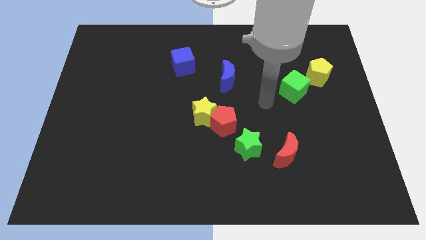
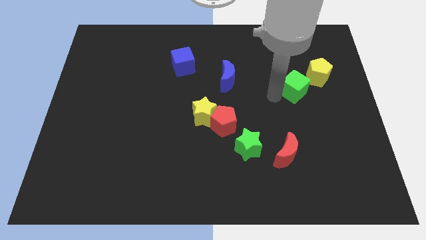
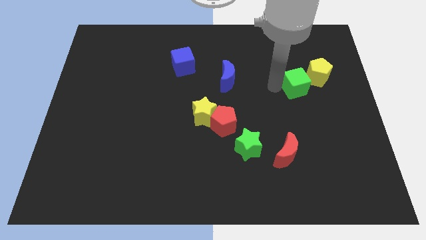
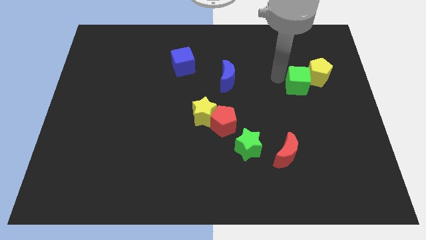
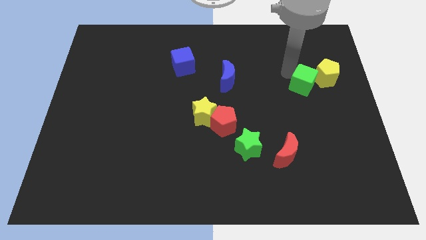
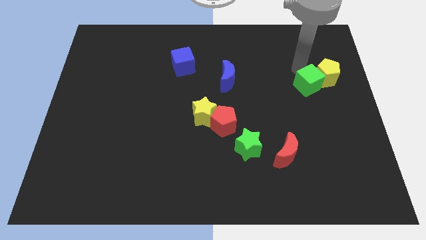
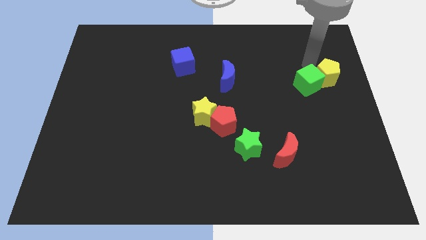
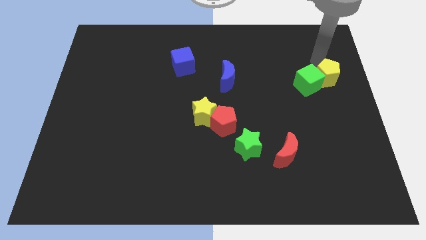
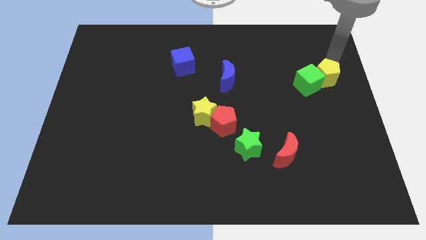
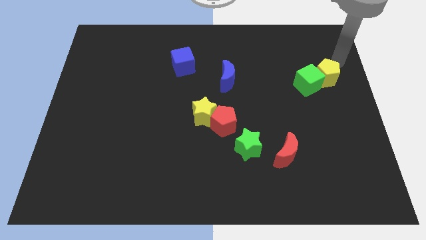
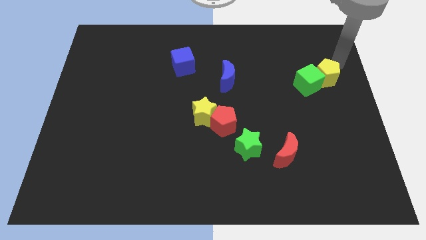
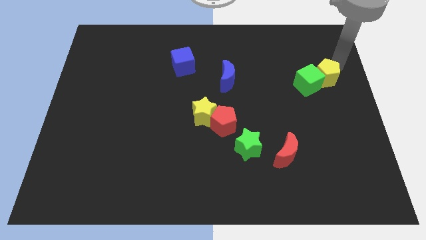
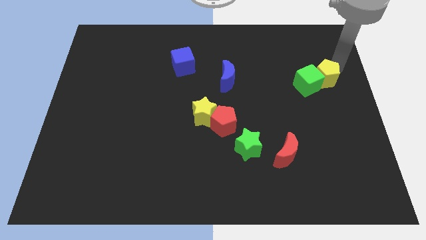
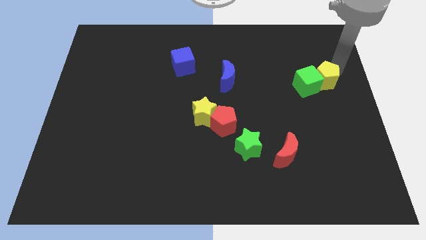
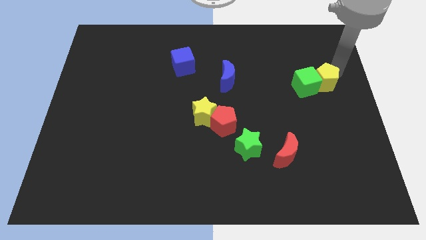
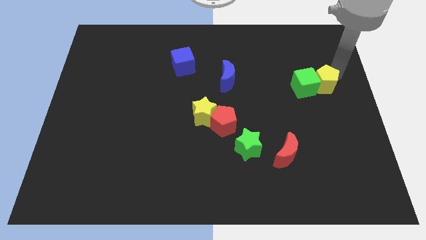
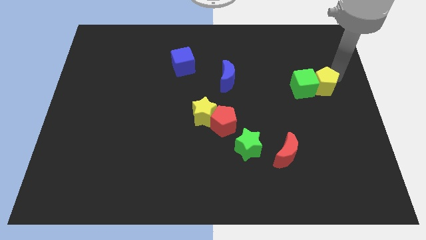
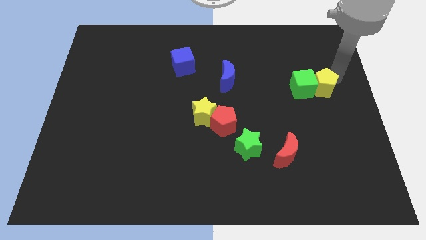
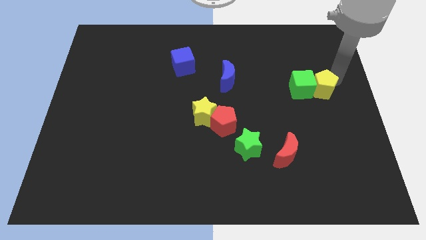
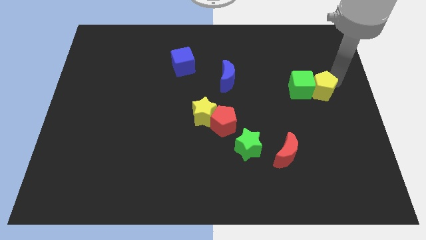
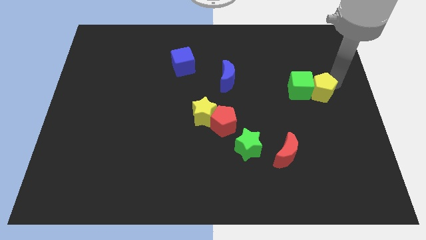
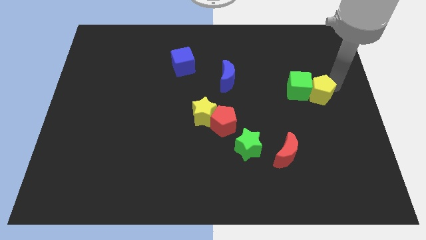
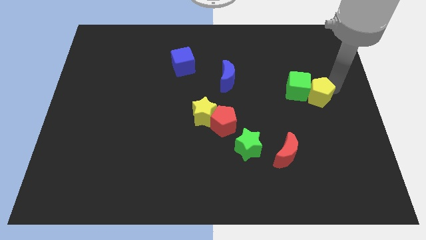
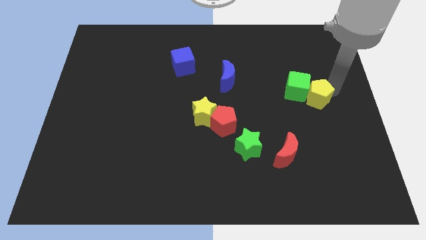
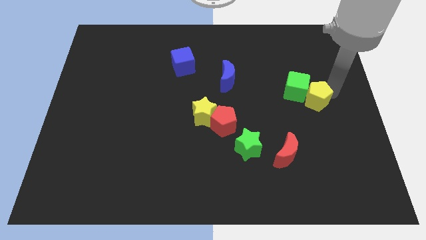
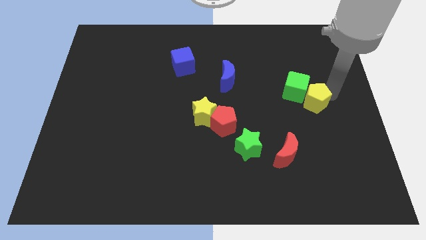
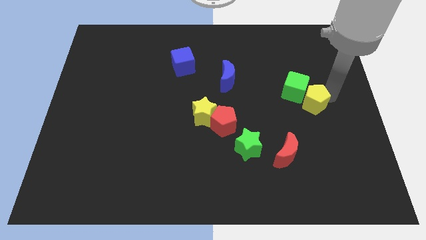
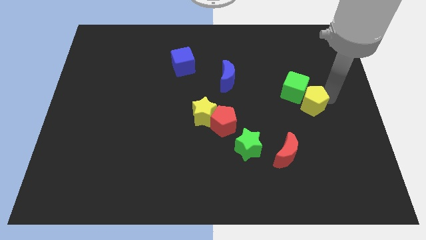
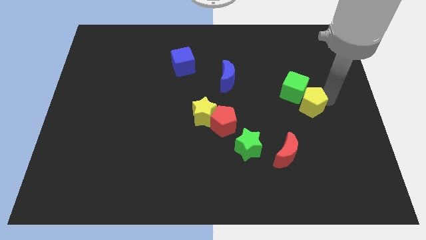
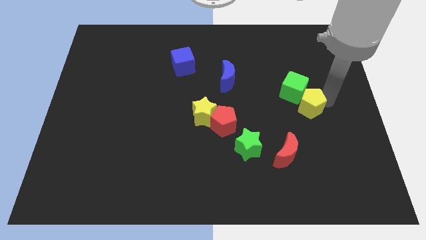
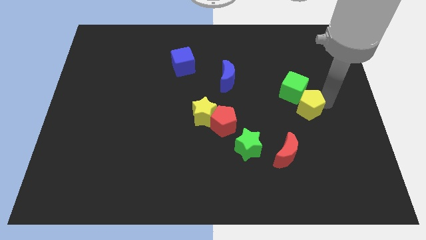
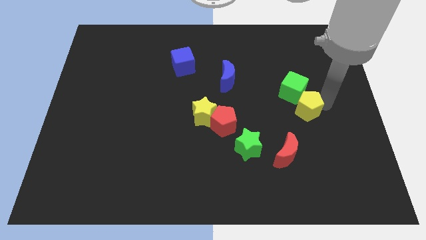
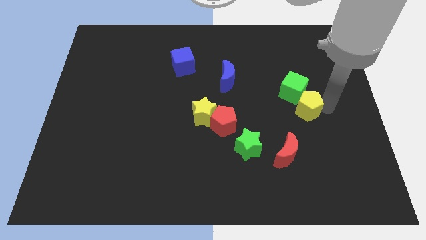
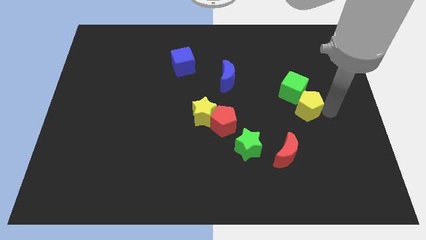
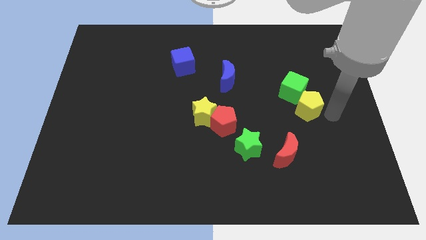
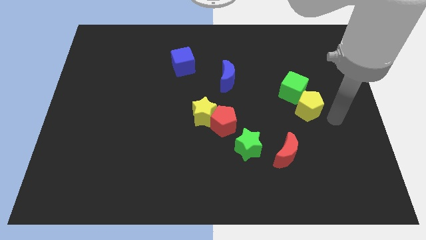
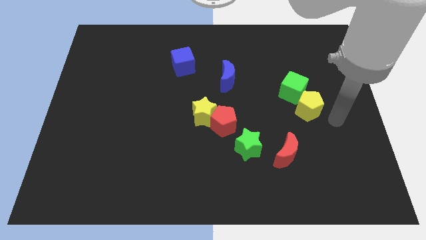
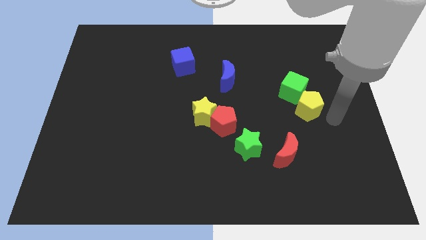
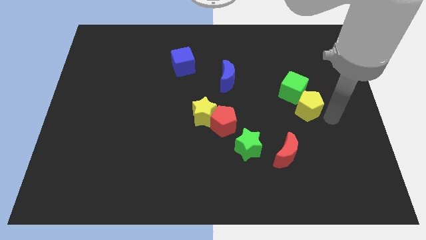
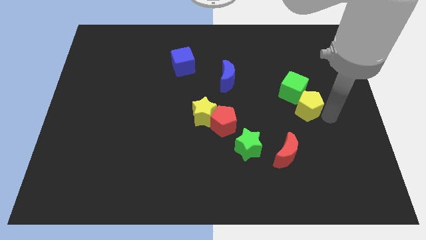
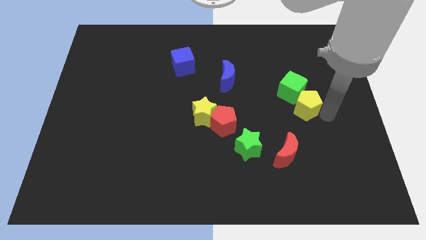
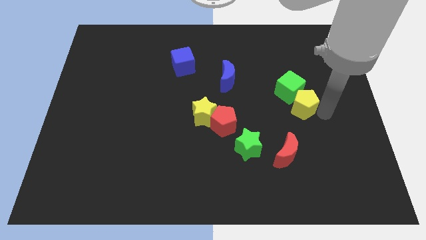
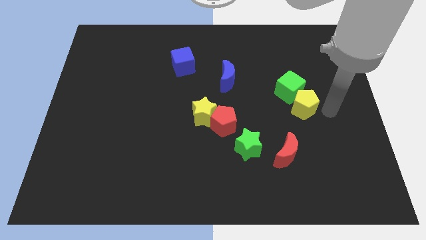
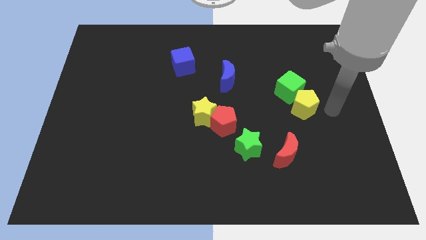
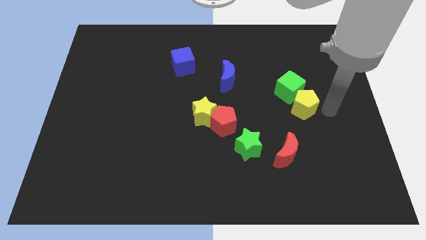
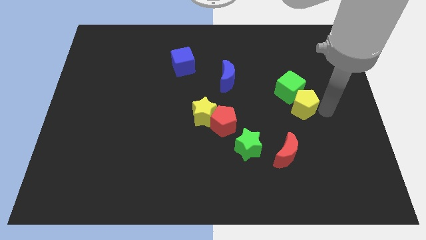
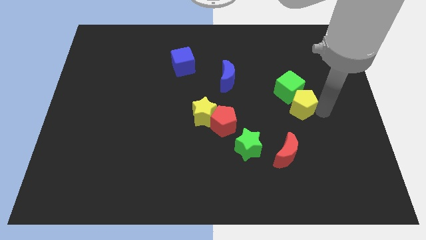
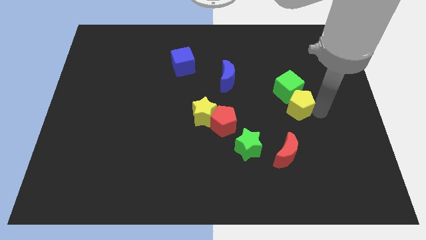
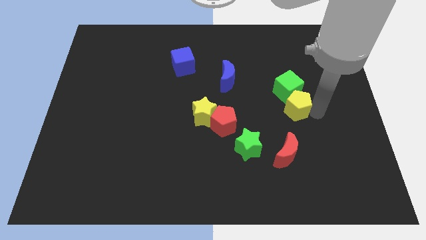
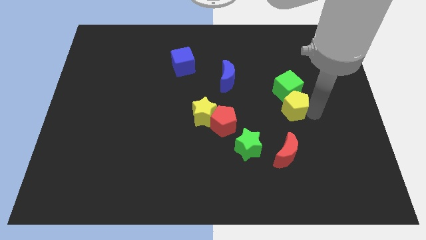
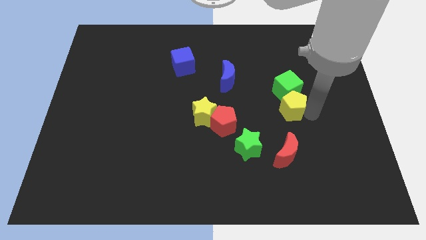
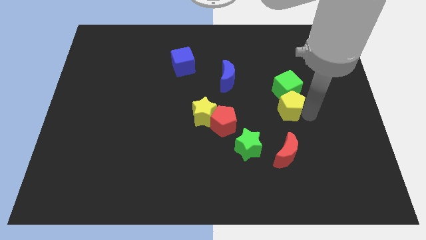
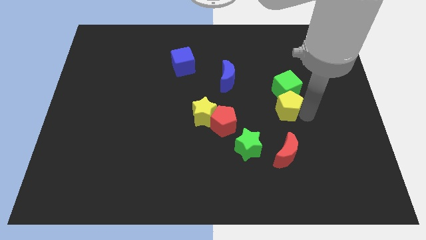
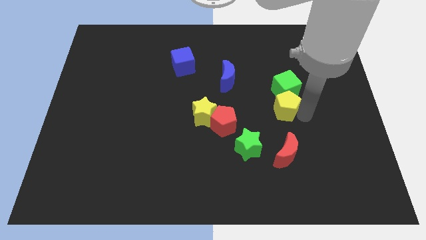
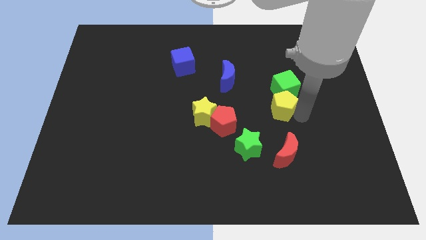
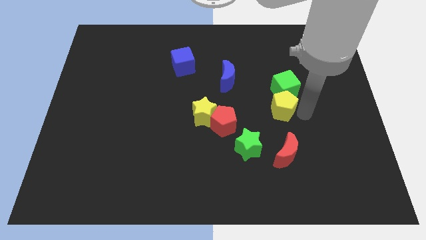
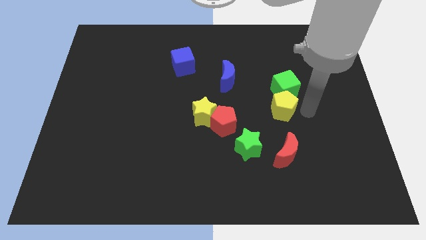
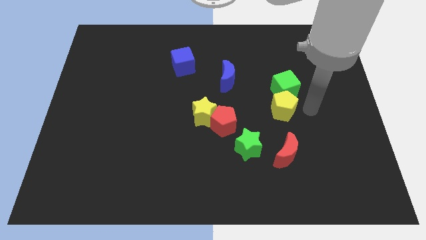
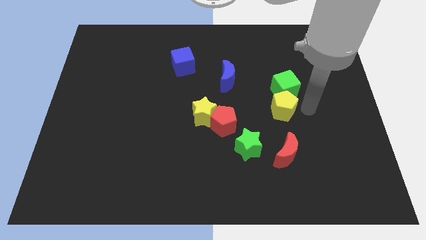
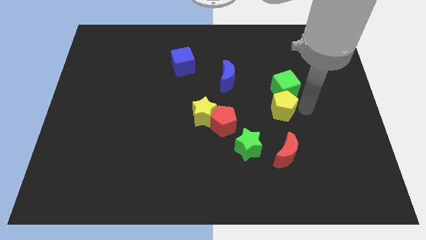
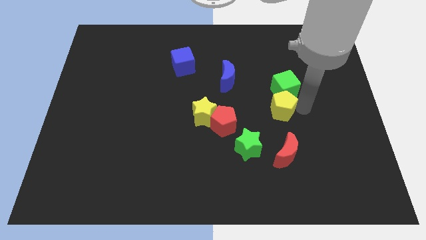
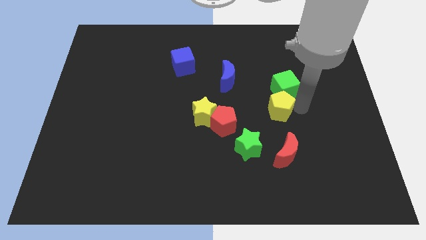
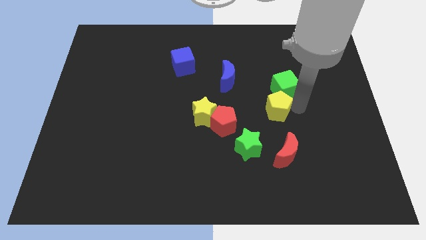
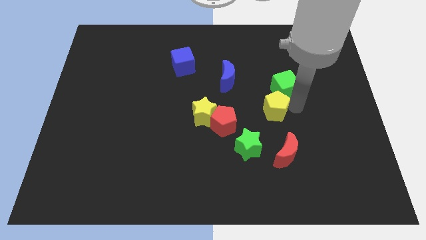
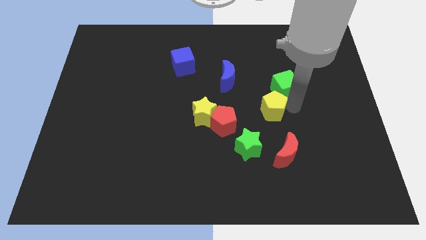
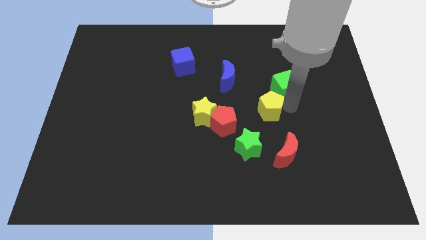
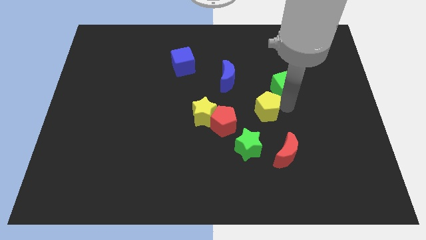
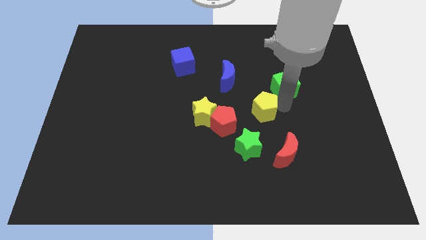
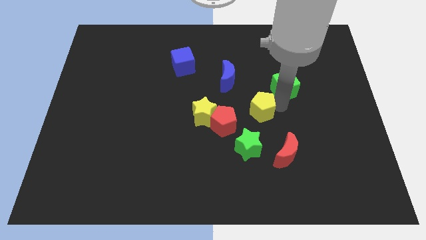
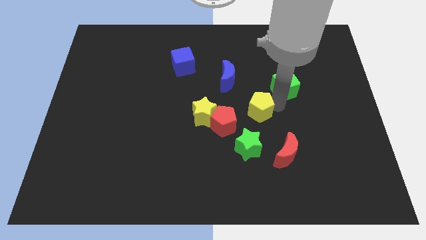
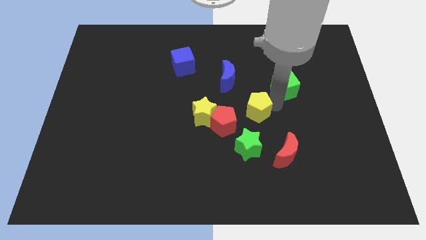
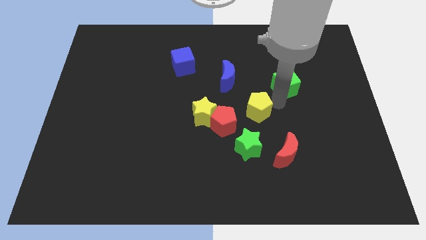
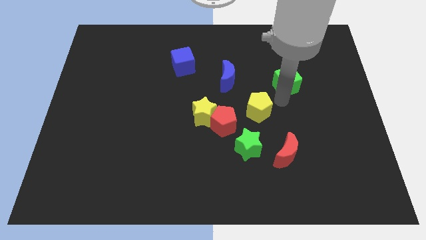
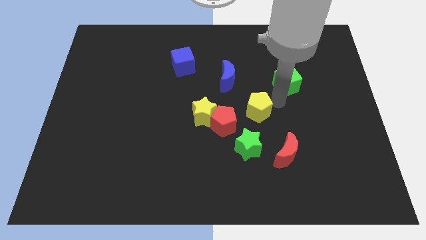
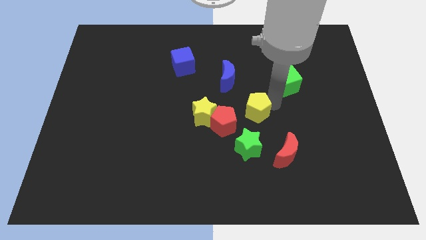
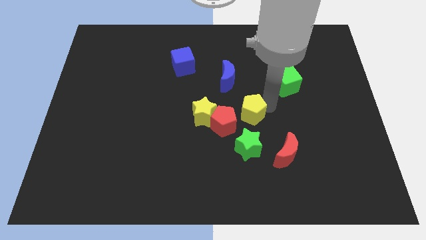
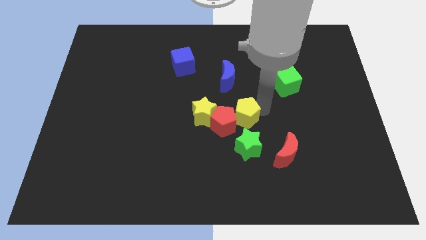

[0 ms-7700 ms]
move the yellow pentagon towards the red pentagon
